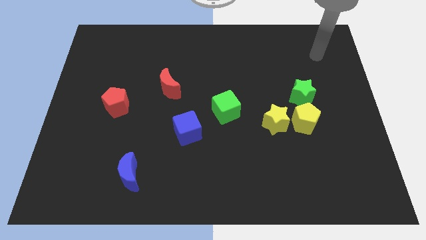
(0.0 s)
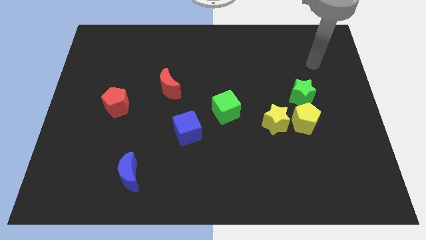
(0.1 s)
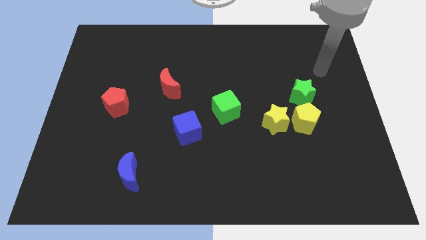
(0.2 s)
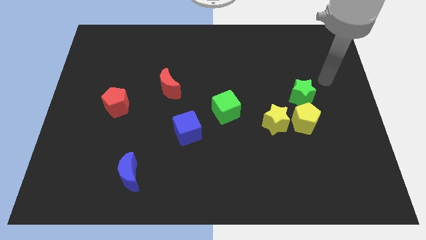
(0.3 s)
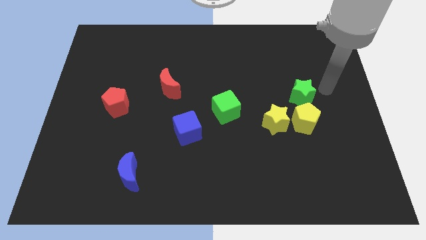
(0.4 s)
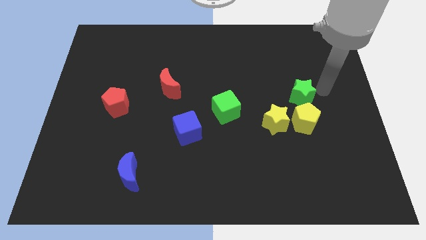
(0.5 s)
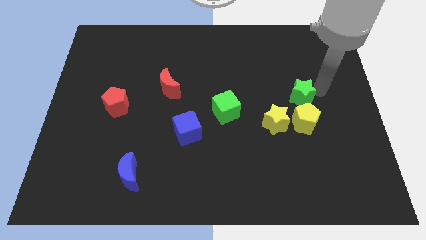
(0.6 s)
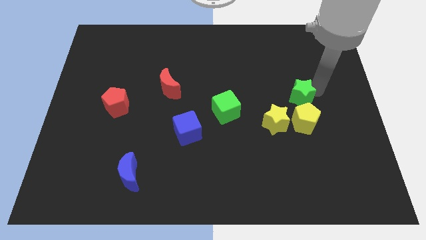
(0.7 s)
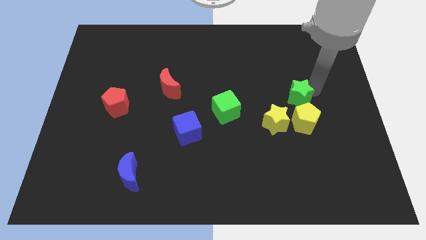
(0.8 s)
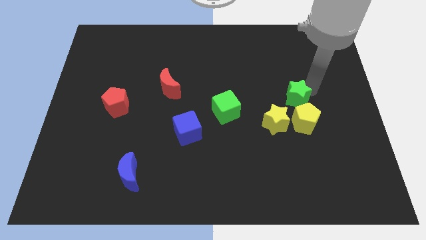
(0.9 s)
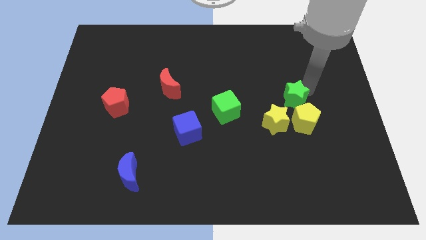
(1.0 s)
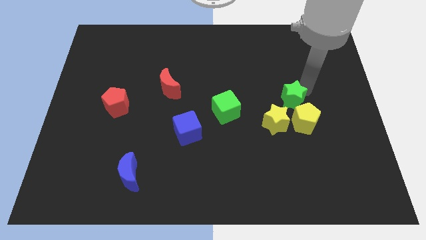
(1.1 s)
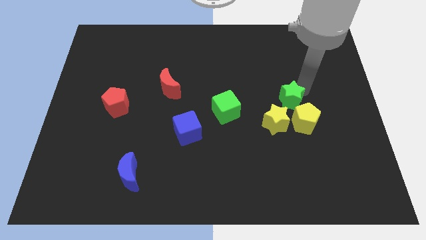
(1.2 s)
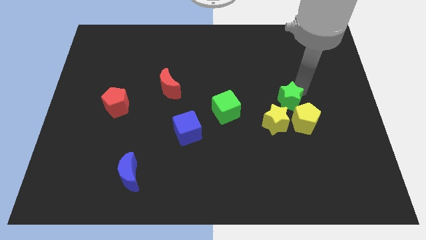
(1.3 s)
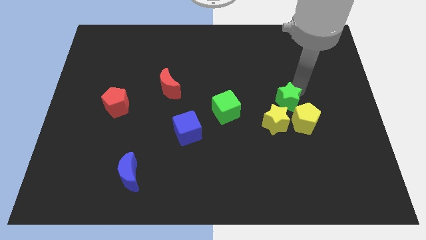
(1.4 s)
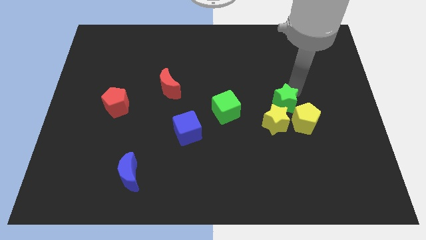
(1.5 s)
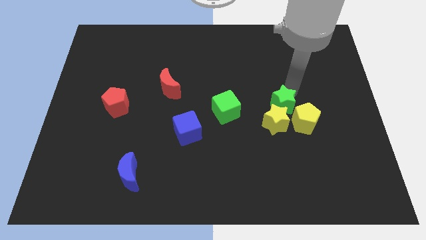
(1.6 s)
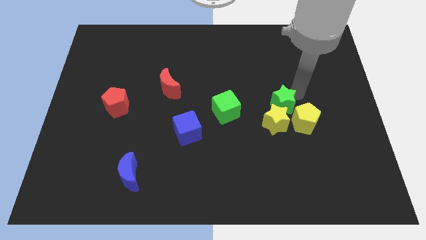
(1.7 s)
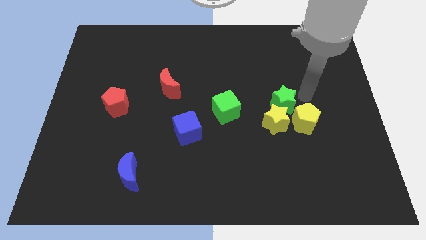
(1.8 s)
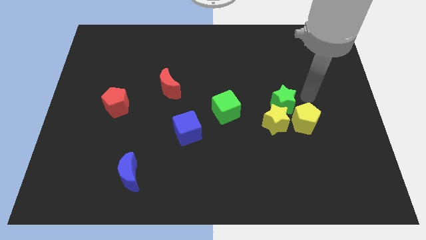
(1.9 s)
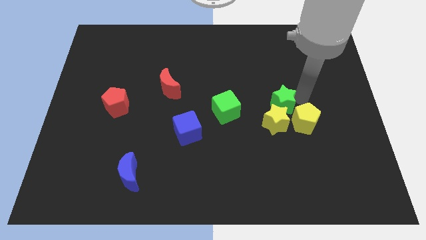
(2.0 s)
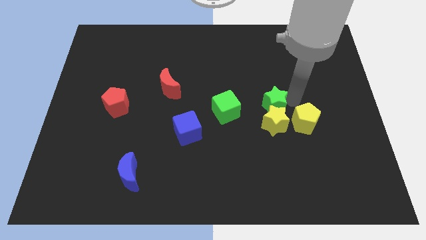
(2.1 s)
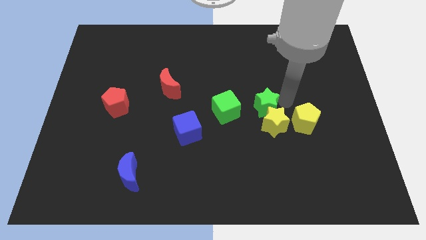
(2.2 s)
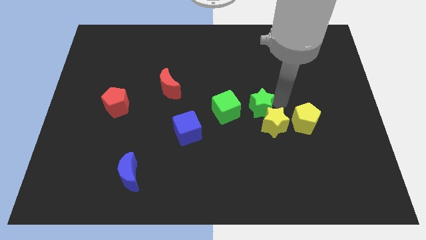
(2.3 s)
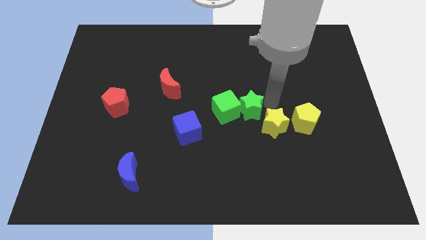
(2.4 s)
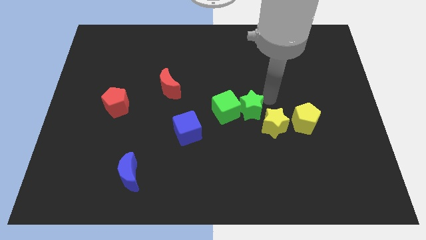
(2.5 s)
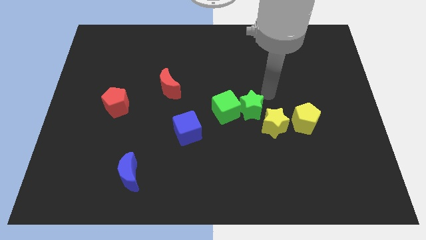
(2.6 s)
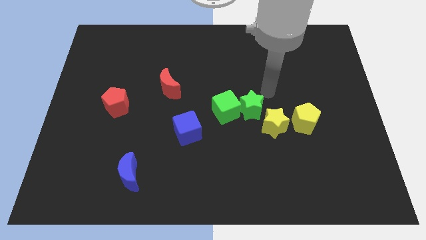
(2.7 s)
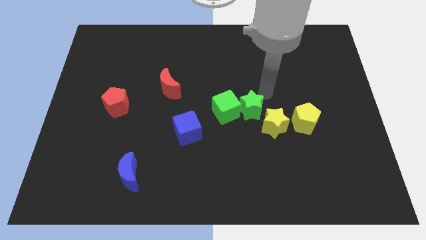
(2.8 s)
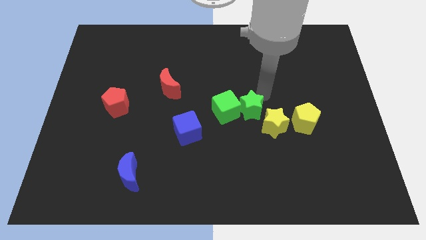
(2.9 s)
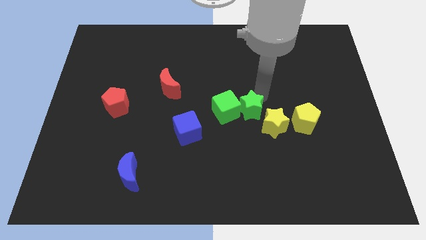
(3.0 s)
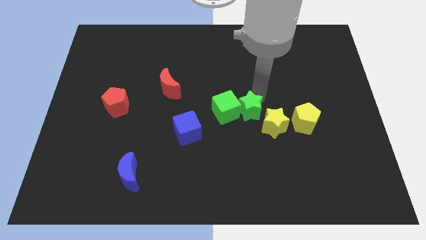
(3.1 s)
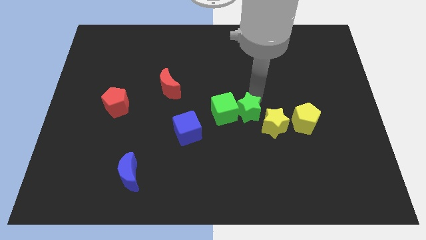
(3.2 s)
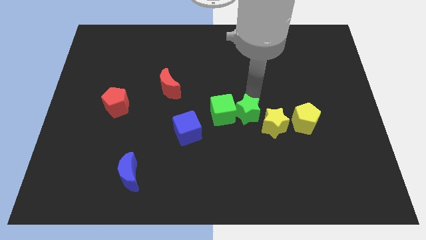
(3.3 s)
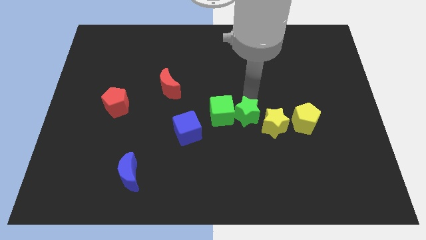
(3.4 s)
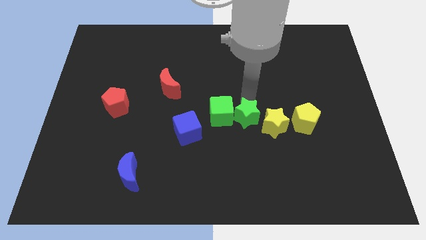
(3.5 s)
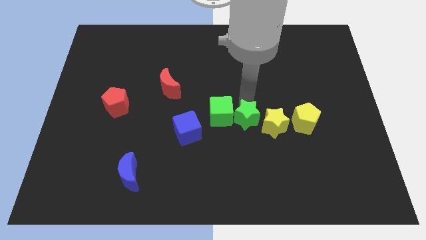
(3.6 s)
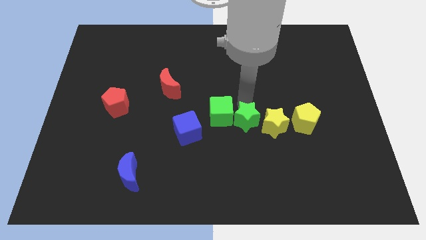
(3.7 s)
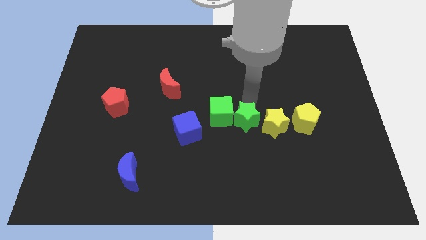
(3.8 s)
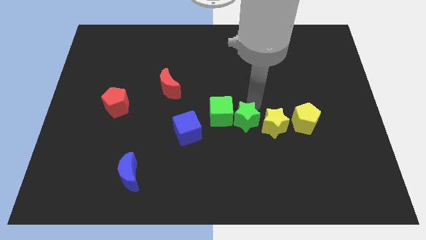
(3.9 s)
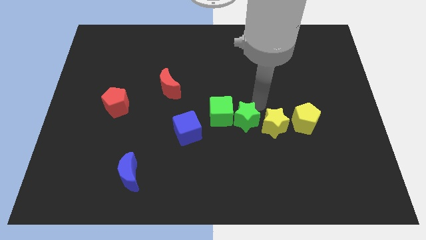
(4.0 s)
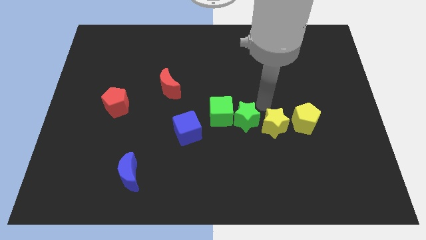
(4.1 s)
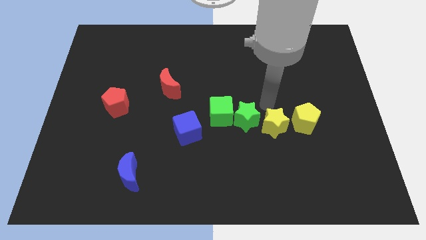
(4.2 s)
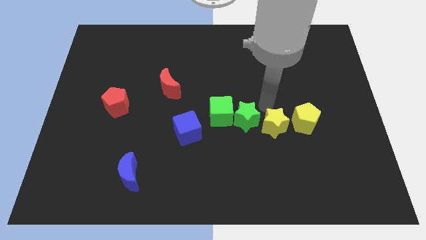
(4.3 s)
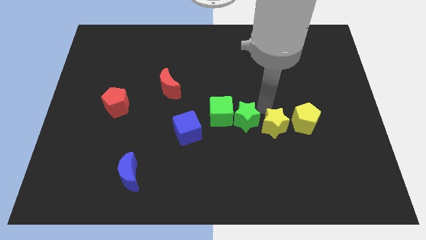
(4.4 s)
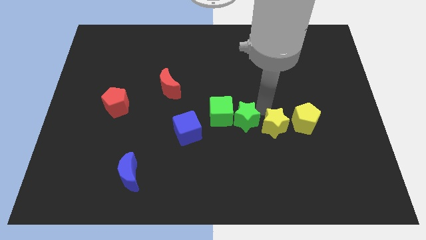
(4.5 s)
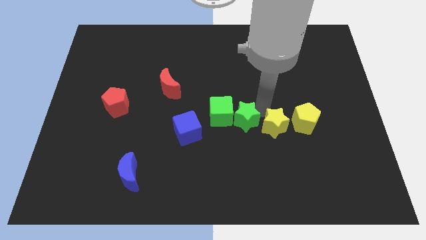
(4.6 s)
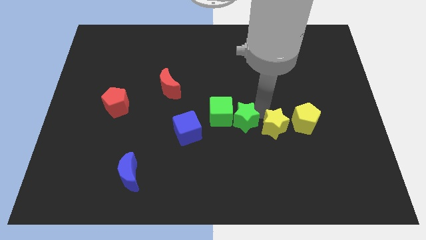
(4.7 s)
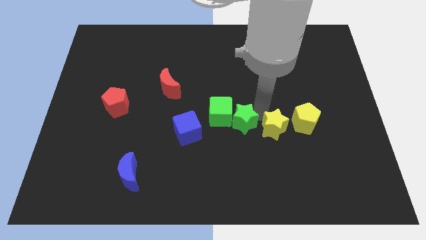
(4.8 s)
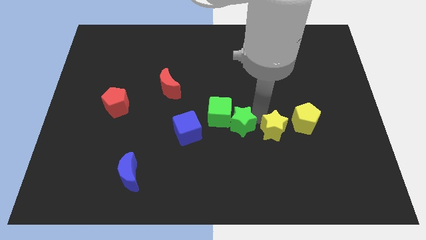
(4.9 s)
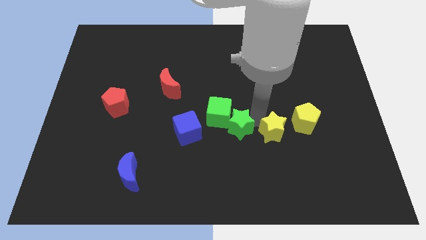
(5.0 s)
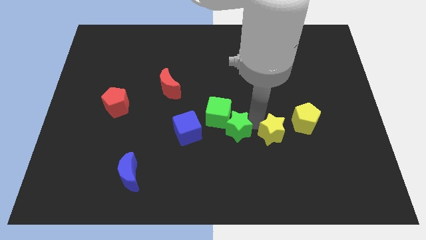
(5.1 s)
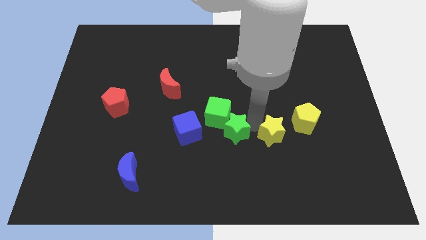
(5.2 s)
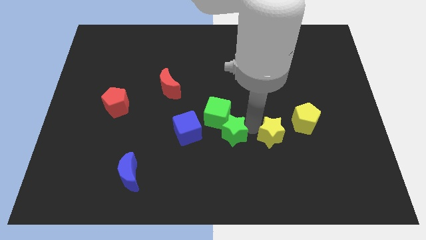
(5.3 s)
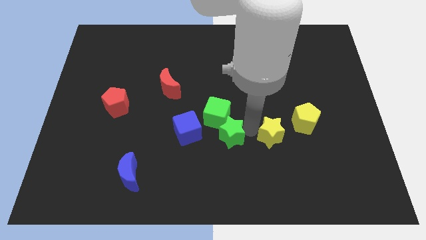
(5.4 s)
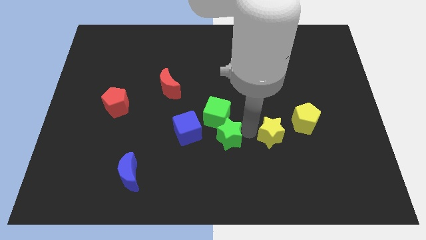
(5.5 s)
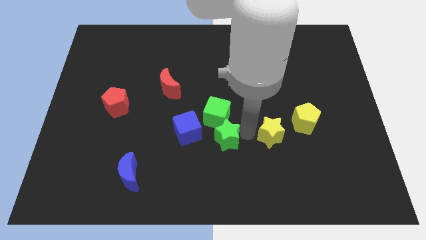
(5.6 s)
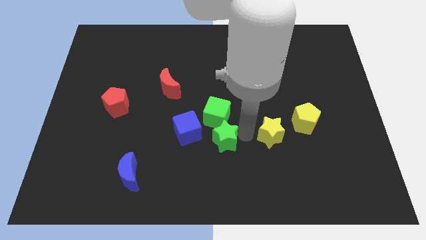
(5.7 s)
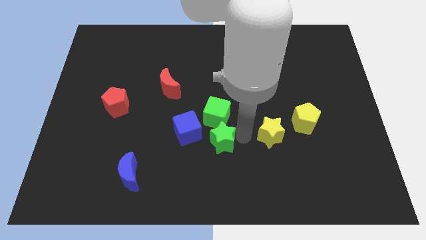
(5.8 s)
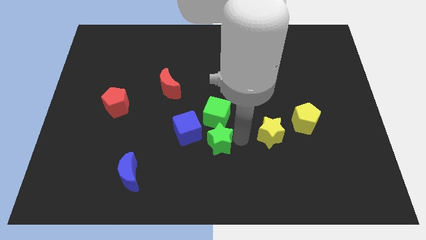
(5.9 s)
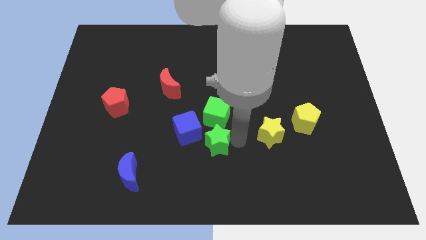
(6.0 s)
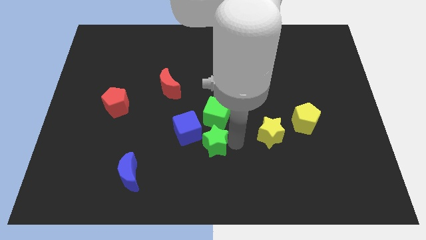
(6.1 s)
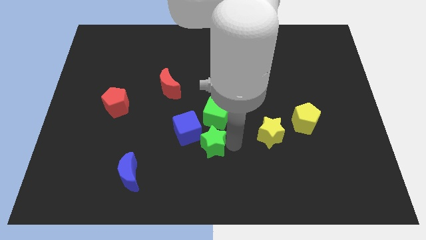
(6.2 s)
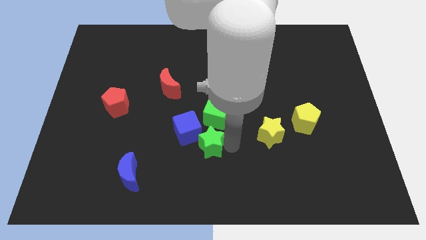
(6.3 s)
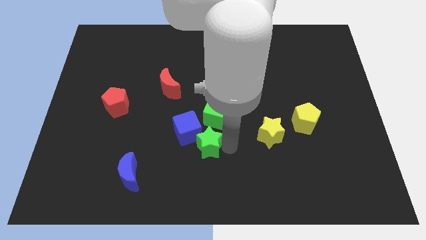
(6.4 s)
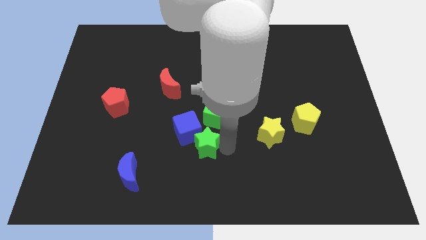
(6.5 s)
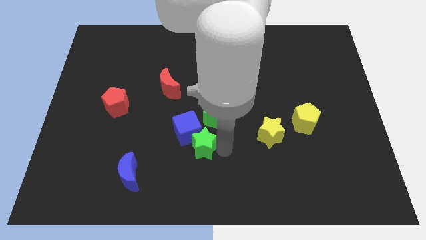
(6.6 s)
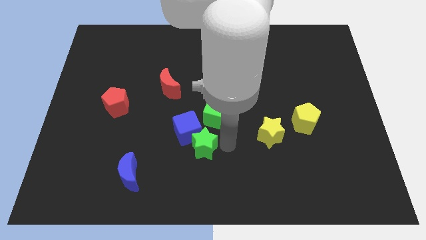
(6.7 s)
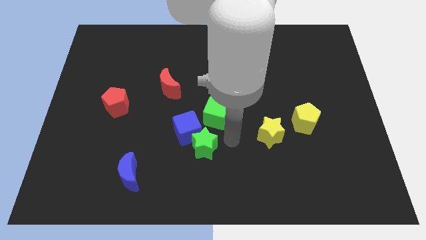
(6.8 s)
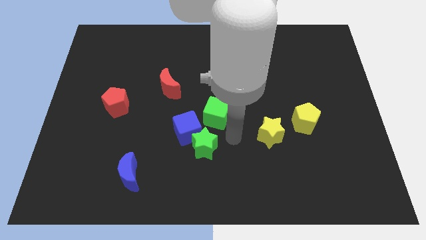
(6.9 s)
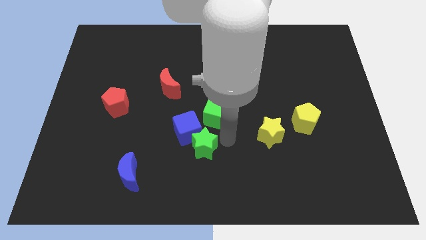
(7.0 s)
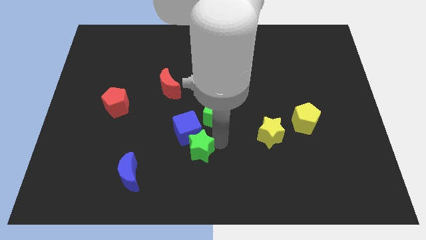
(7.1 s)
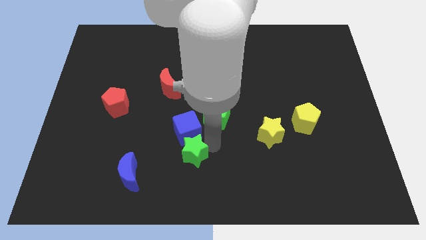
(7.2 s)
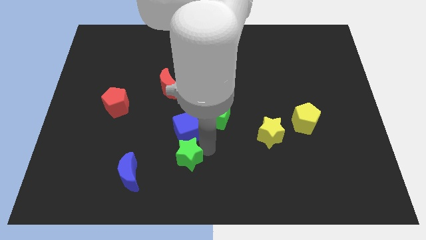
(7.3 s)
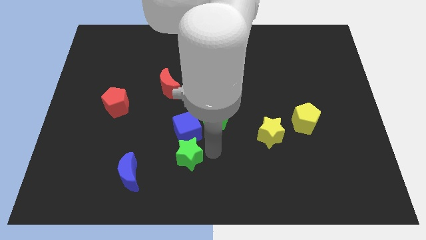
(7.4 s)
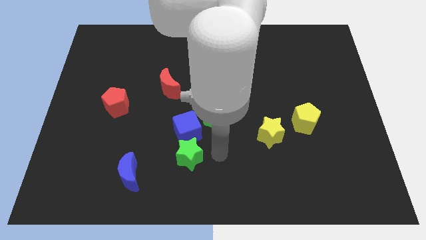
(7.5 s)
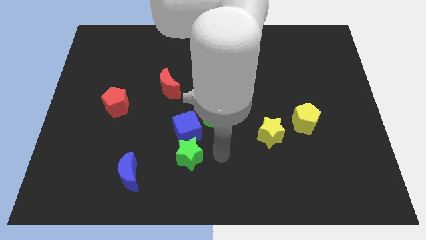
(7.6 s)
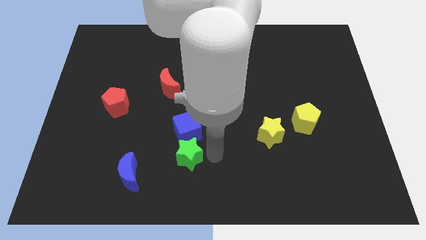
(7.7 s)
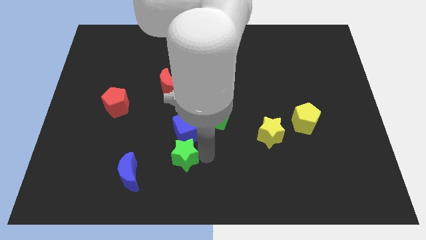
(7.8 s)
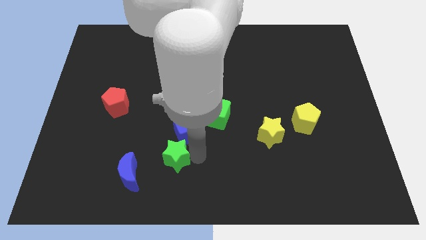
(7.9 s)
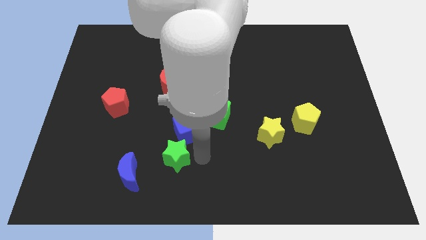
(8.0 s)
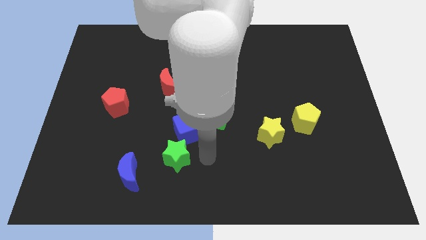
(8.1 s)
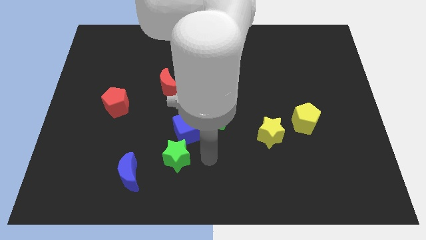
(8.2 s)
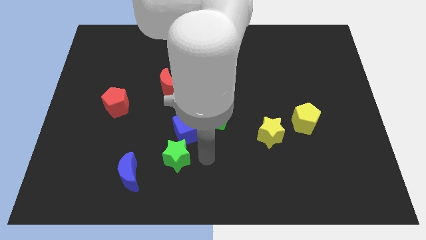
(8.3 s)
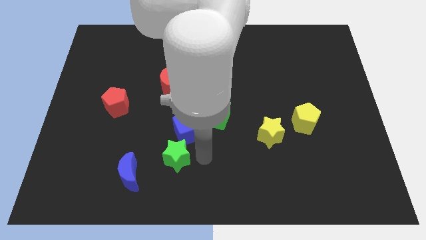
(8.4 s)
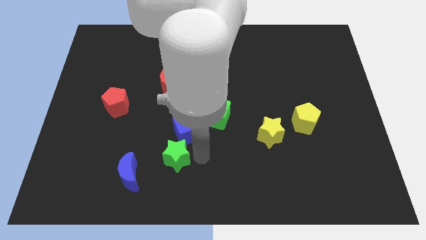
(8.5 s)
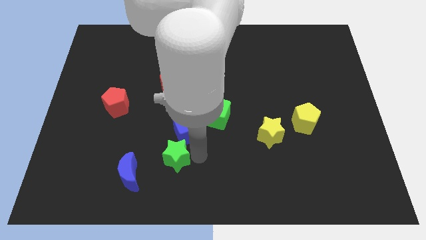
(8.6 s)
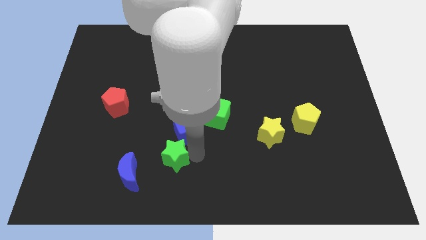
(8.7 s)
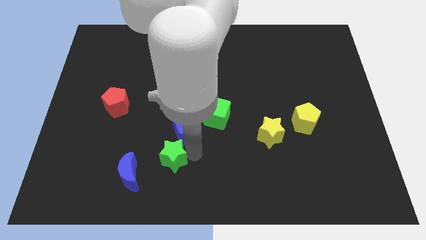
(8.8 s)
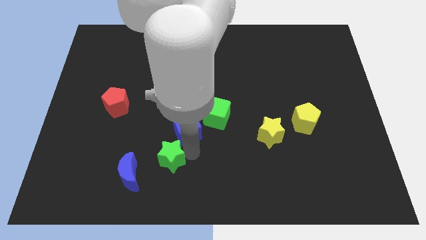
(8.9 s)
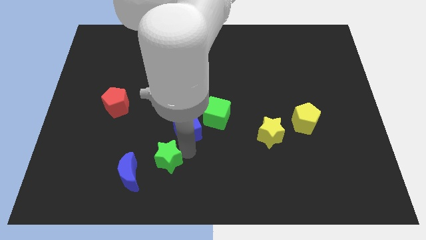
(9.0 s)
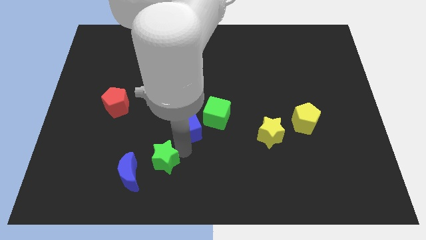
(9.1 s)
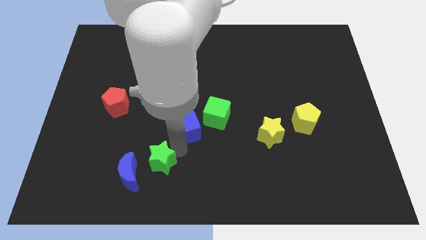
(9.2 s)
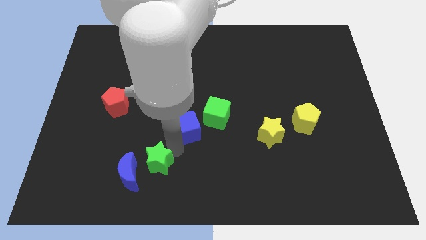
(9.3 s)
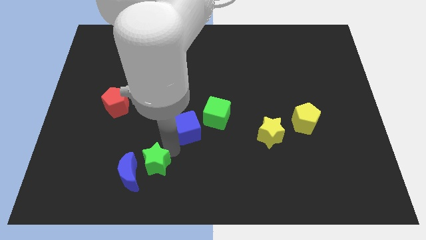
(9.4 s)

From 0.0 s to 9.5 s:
put the green star to the blue moon
